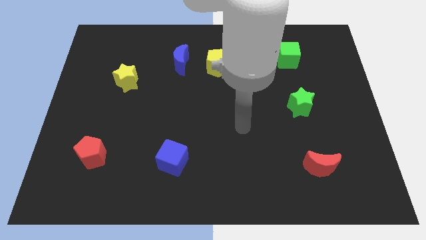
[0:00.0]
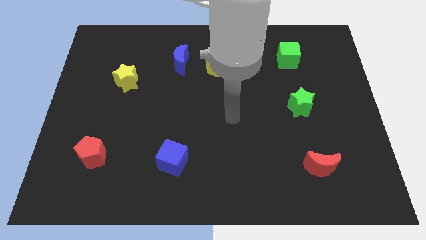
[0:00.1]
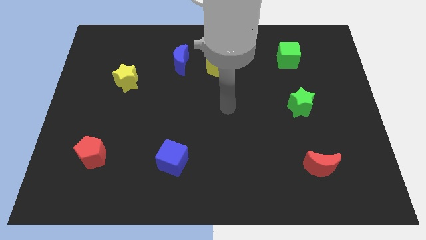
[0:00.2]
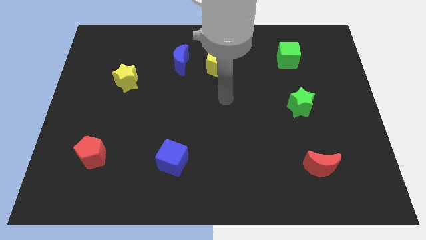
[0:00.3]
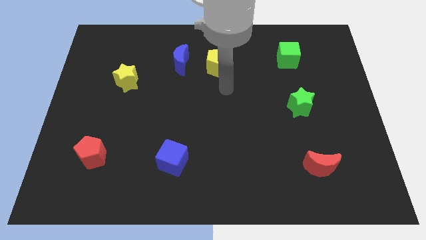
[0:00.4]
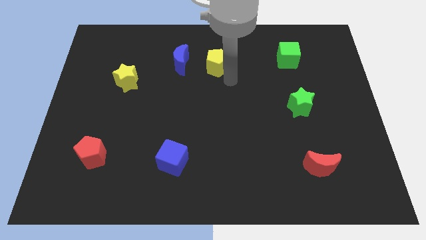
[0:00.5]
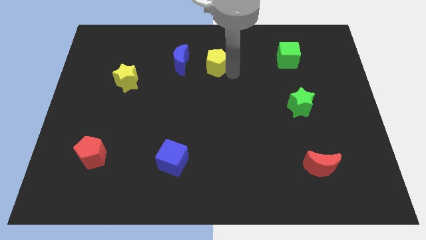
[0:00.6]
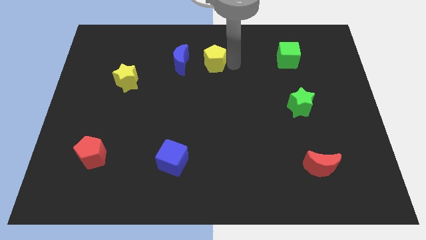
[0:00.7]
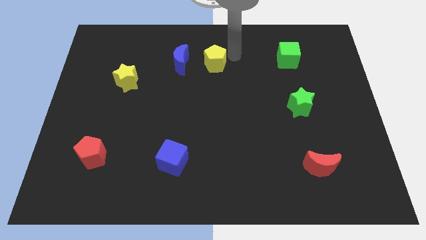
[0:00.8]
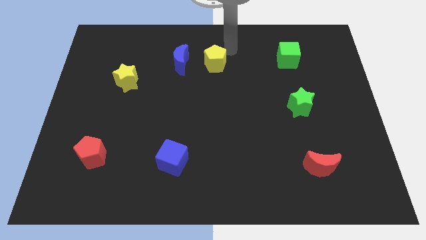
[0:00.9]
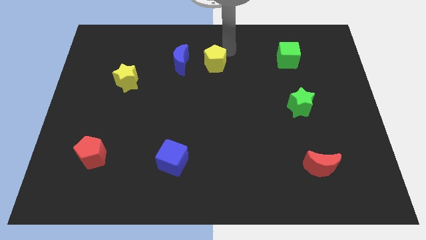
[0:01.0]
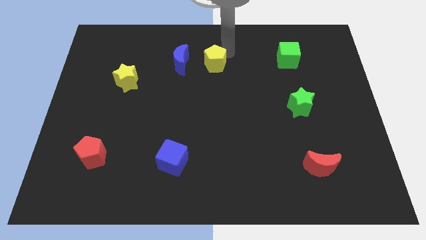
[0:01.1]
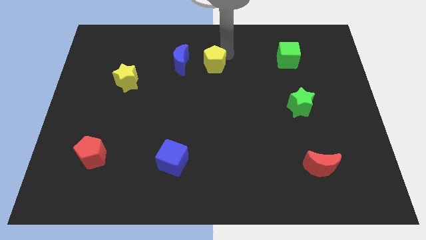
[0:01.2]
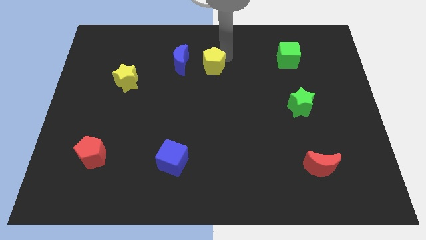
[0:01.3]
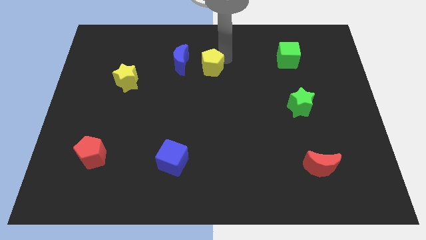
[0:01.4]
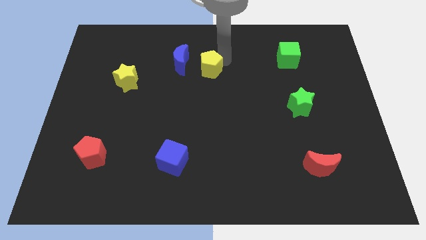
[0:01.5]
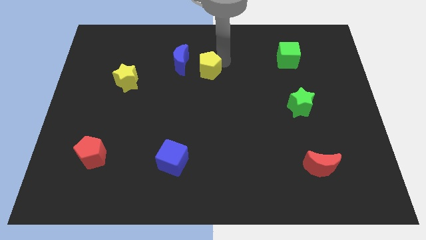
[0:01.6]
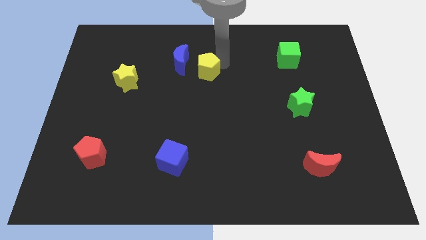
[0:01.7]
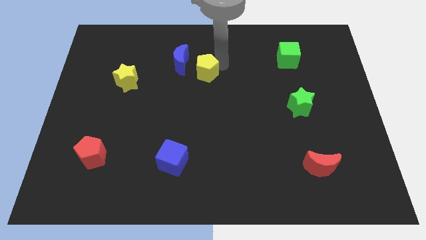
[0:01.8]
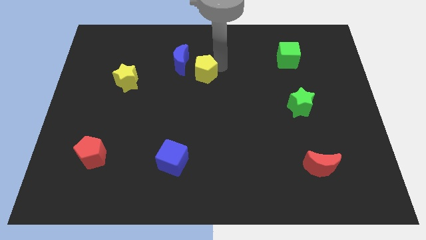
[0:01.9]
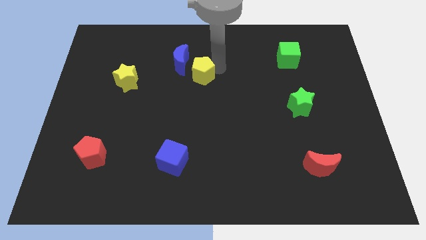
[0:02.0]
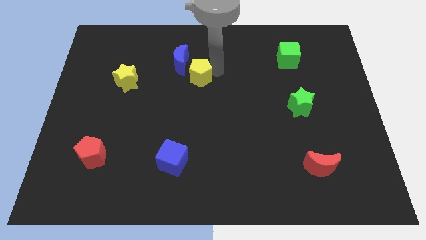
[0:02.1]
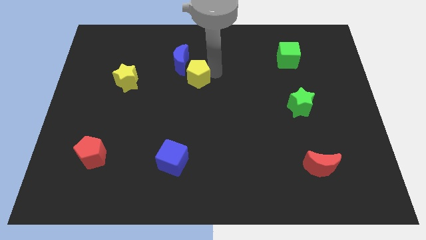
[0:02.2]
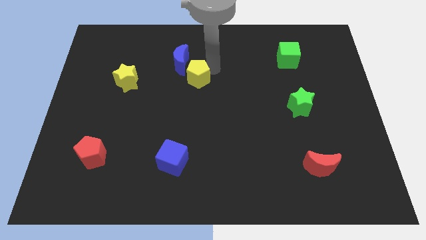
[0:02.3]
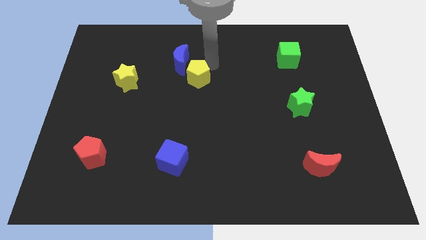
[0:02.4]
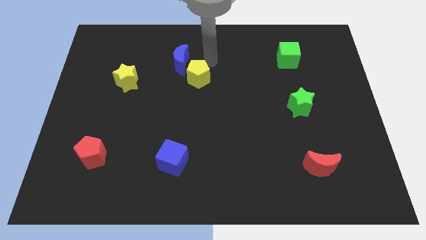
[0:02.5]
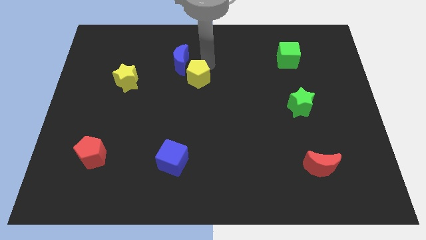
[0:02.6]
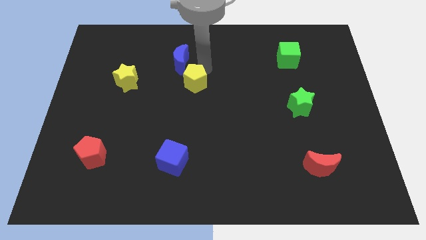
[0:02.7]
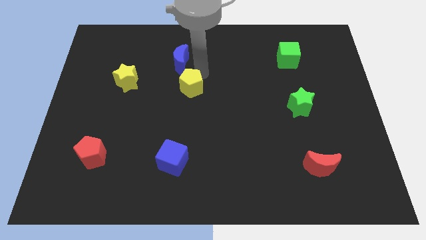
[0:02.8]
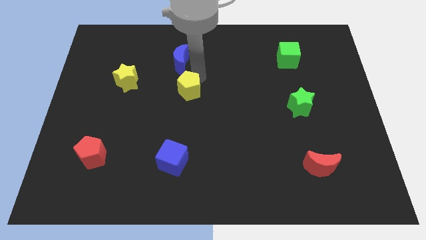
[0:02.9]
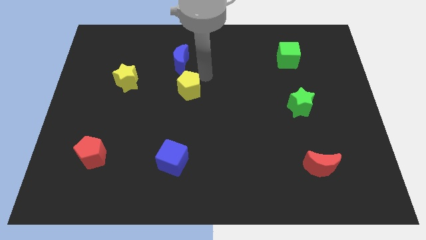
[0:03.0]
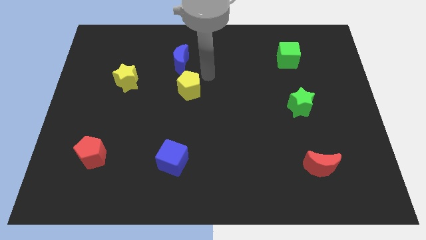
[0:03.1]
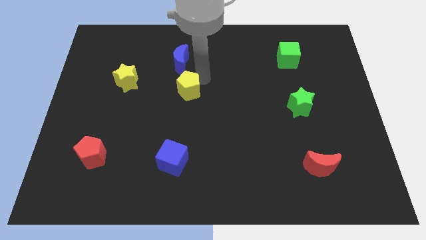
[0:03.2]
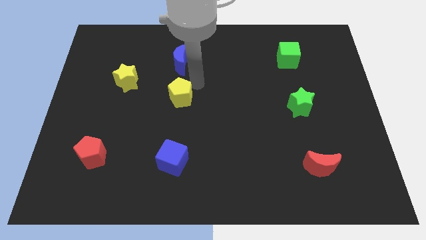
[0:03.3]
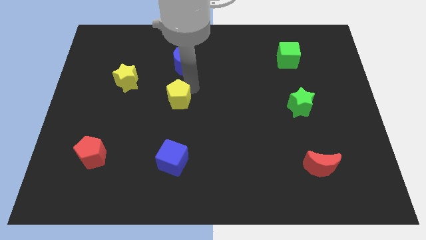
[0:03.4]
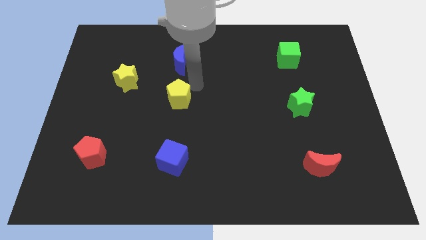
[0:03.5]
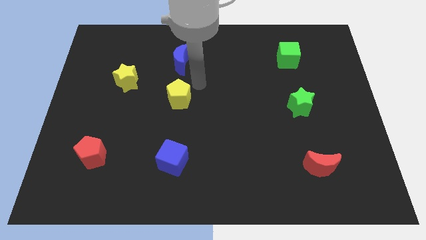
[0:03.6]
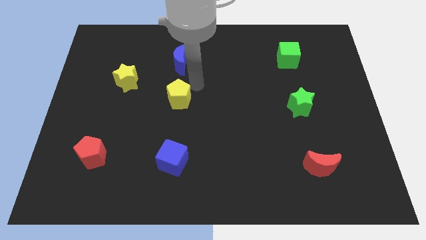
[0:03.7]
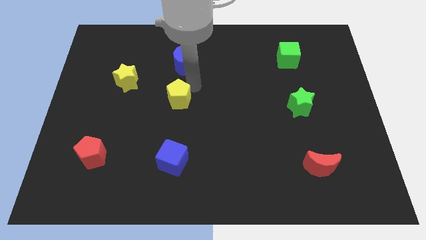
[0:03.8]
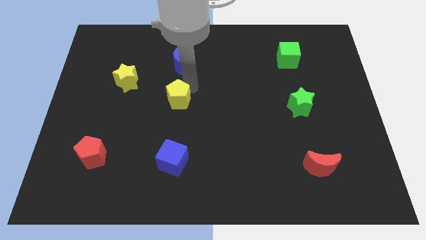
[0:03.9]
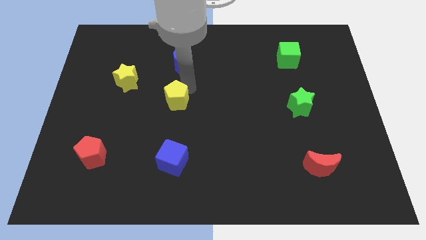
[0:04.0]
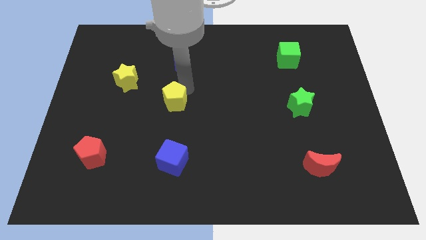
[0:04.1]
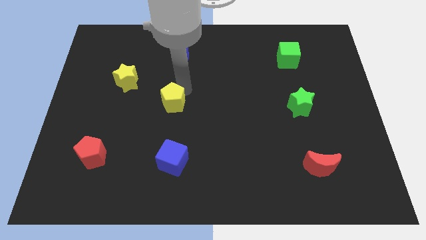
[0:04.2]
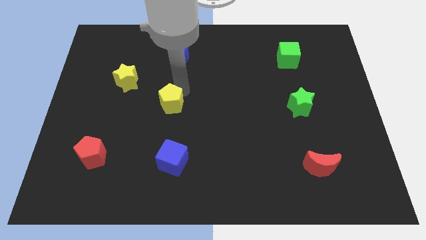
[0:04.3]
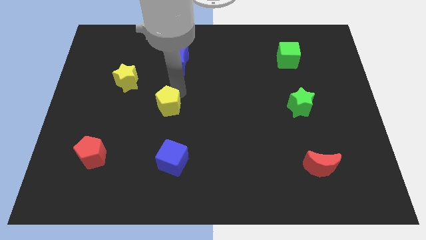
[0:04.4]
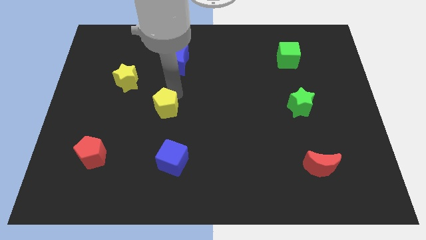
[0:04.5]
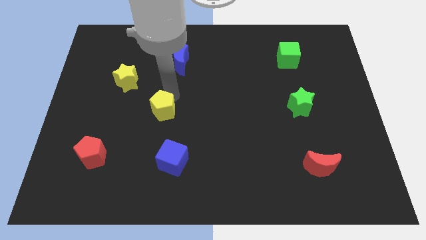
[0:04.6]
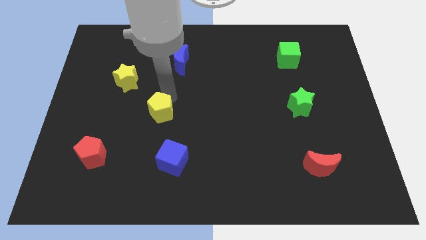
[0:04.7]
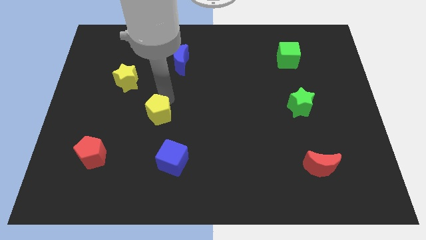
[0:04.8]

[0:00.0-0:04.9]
move the yellow pentagon diagonally downwards and to the left

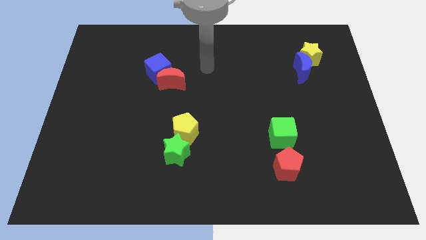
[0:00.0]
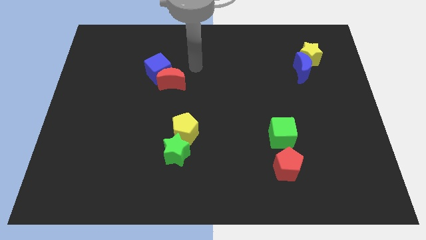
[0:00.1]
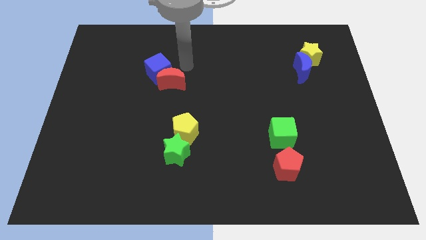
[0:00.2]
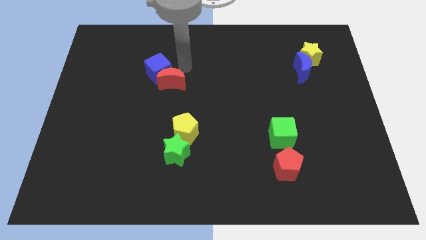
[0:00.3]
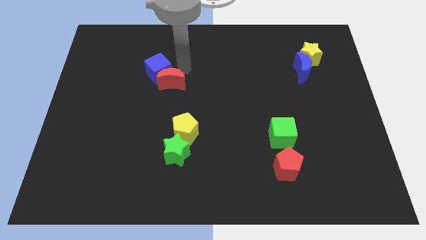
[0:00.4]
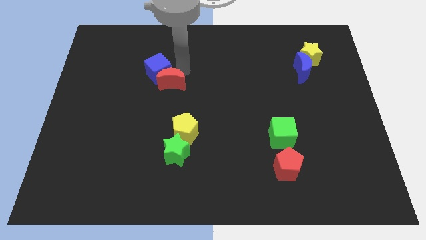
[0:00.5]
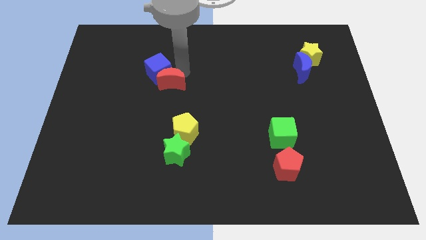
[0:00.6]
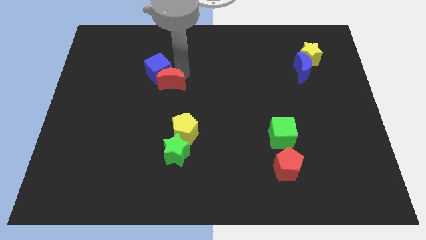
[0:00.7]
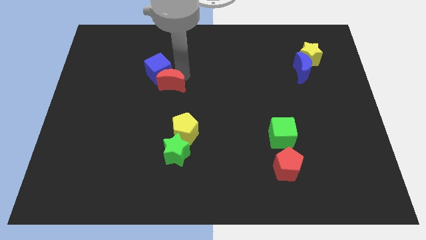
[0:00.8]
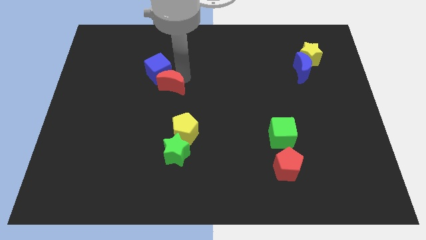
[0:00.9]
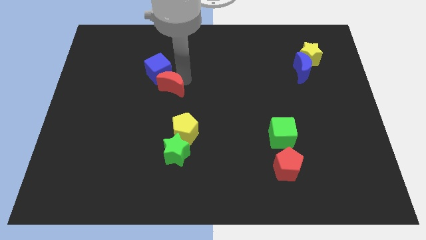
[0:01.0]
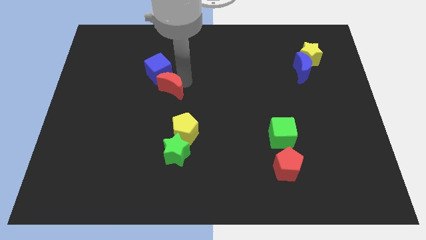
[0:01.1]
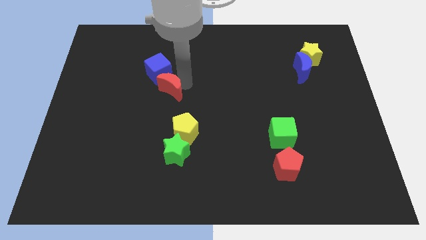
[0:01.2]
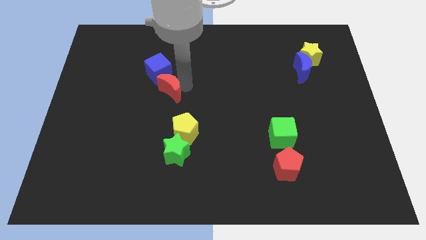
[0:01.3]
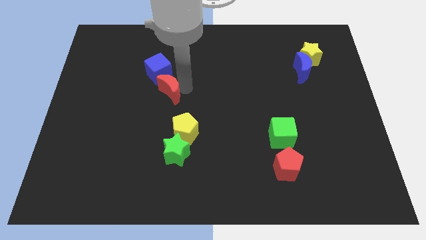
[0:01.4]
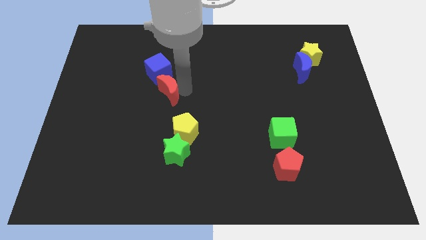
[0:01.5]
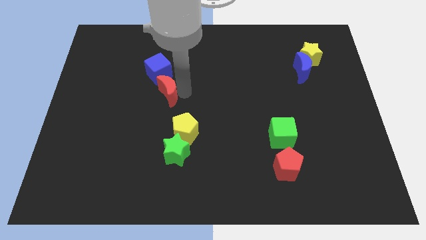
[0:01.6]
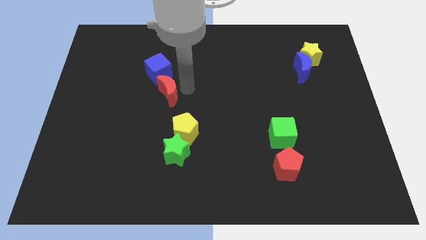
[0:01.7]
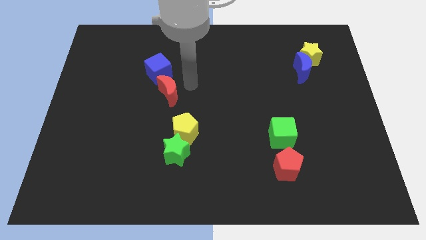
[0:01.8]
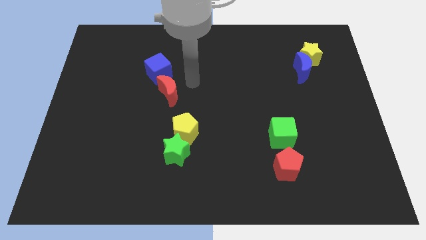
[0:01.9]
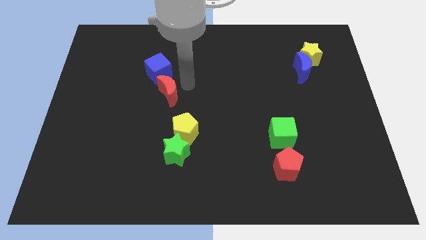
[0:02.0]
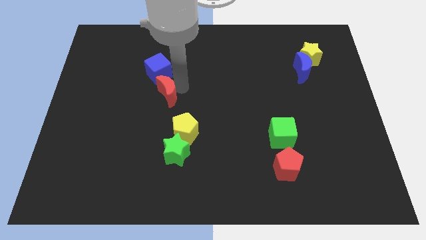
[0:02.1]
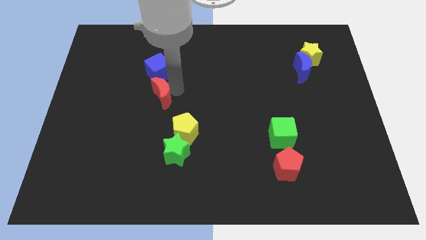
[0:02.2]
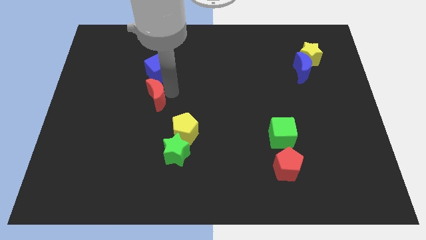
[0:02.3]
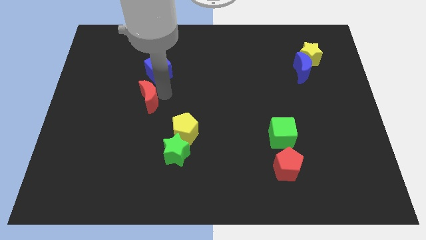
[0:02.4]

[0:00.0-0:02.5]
slightly push the red moon down and to the left

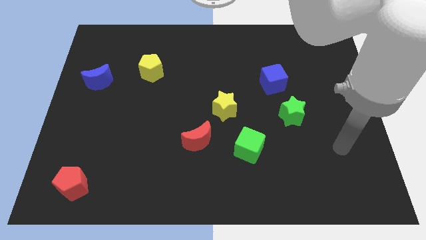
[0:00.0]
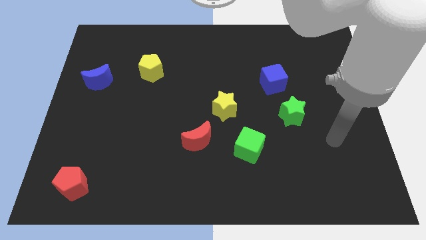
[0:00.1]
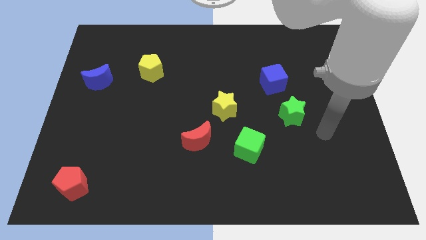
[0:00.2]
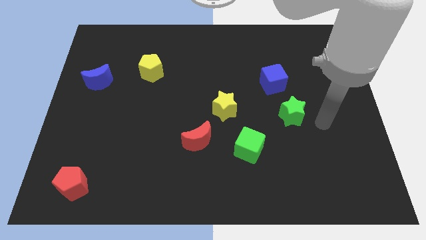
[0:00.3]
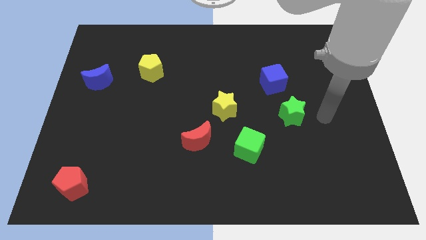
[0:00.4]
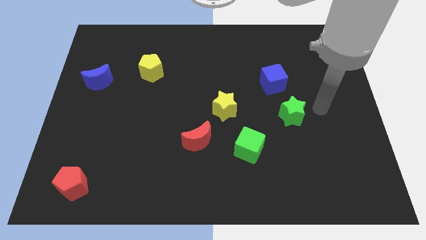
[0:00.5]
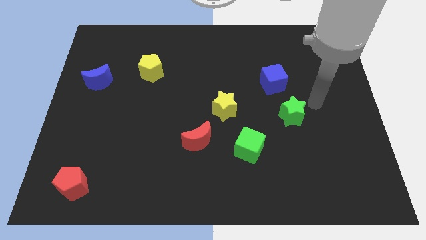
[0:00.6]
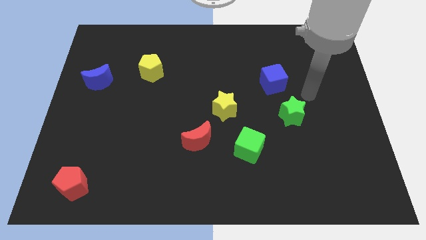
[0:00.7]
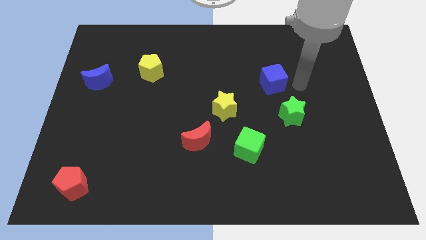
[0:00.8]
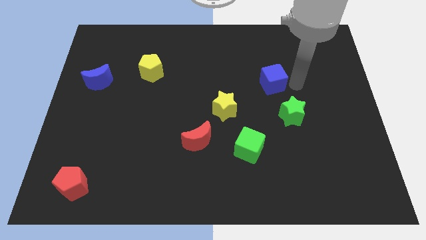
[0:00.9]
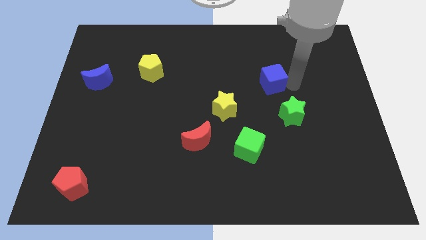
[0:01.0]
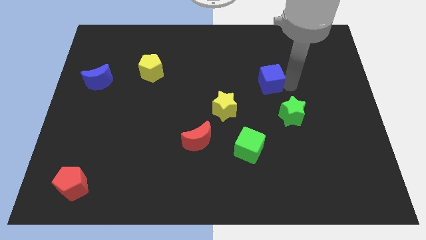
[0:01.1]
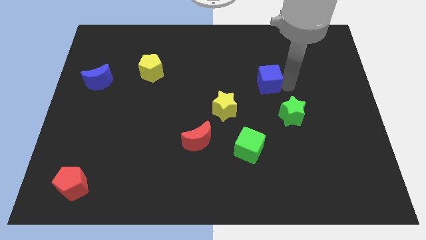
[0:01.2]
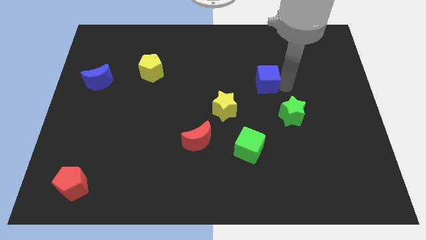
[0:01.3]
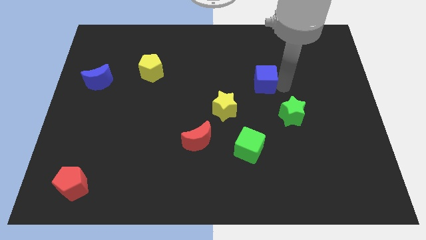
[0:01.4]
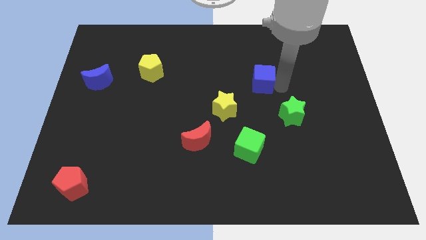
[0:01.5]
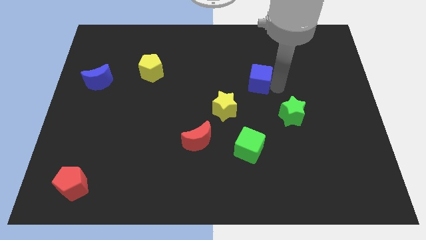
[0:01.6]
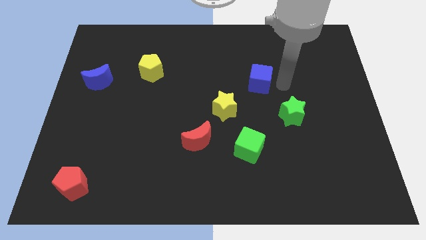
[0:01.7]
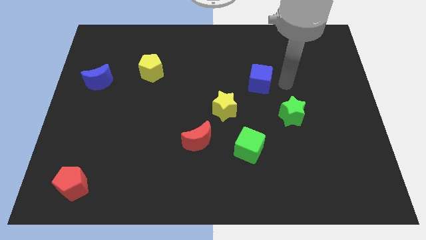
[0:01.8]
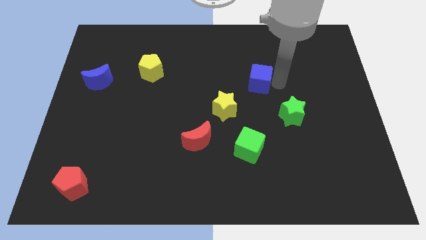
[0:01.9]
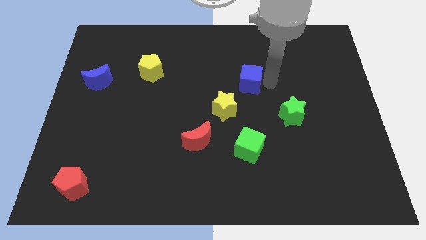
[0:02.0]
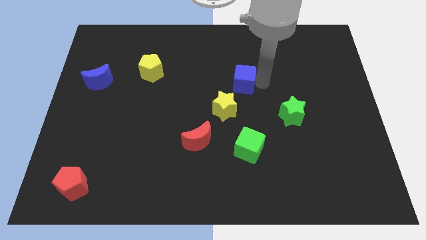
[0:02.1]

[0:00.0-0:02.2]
slide the blue cube to the left slightly
